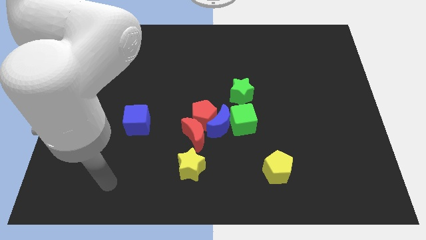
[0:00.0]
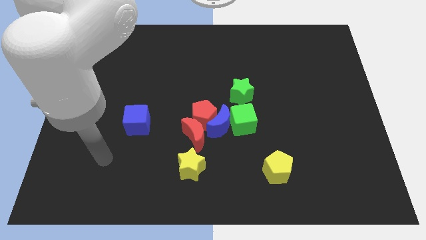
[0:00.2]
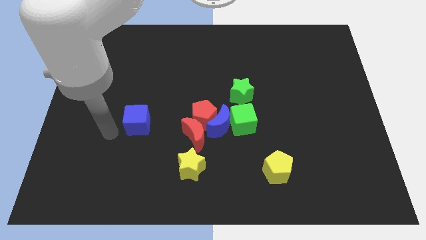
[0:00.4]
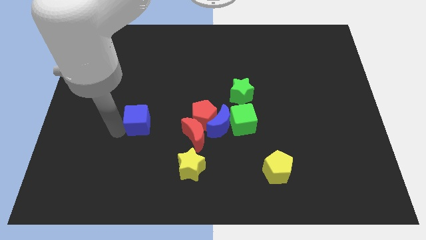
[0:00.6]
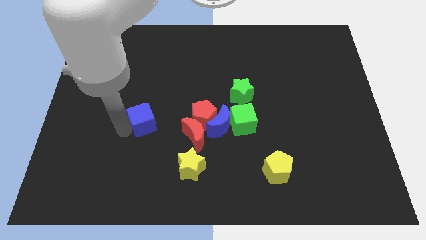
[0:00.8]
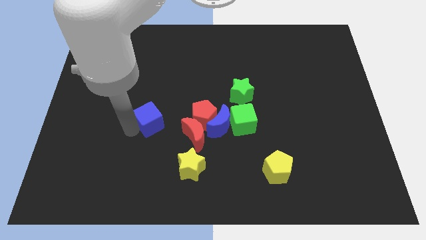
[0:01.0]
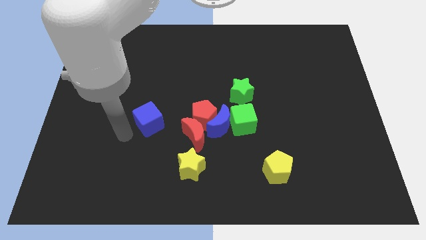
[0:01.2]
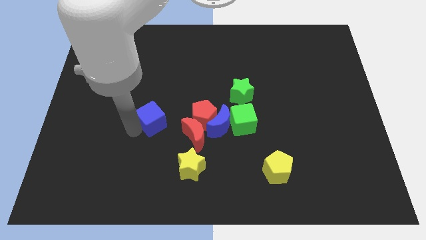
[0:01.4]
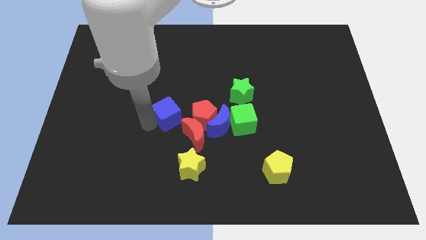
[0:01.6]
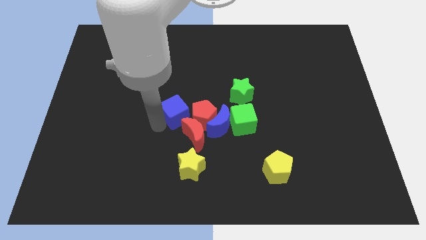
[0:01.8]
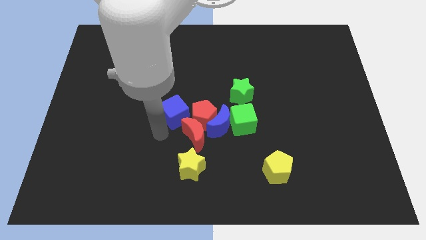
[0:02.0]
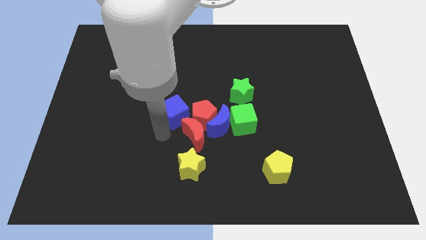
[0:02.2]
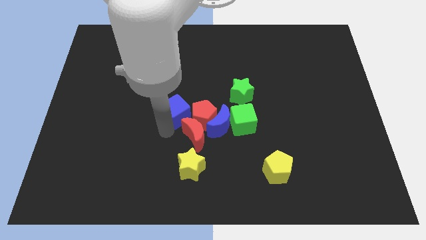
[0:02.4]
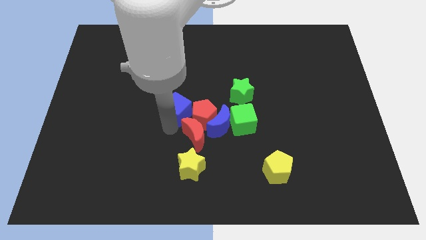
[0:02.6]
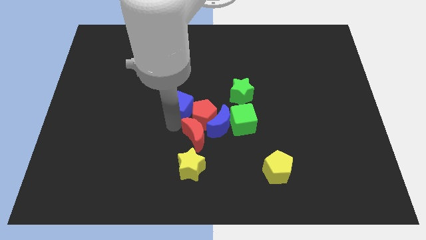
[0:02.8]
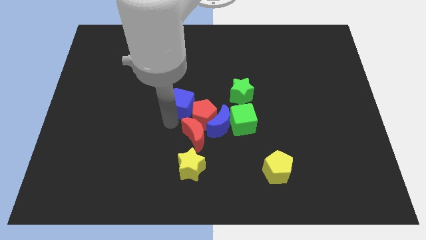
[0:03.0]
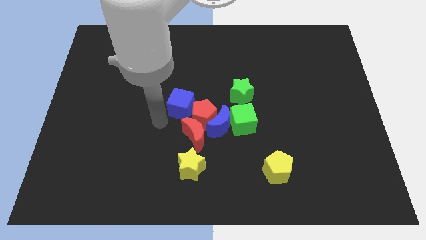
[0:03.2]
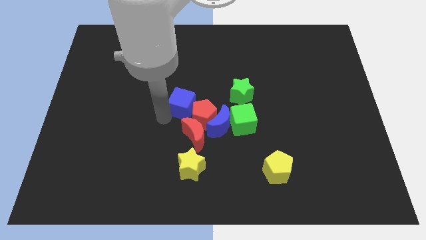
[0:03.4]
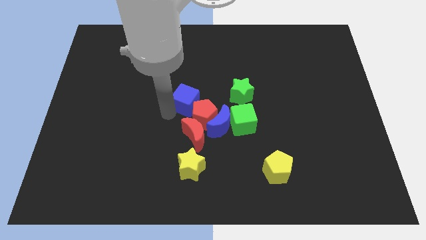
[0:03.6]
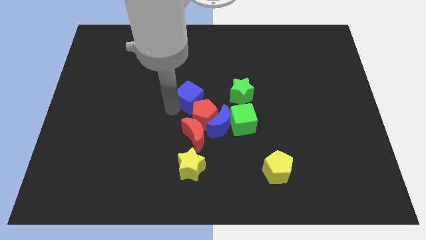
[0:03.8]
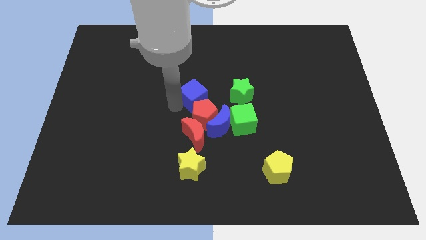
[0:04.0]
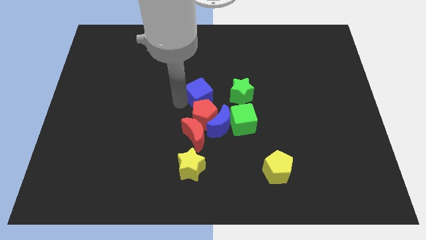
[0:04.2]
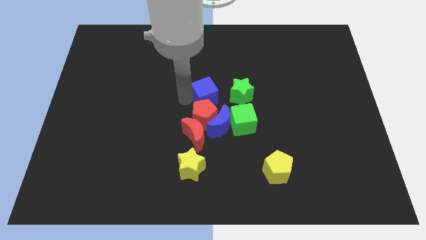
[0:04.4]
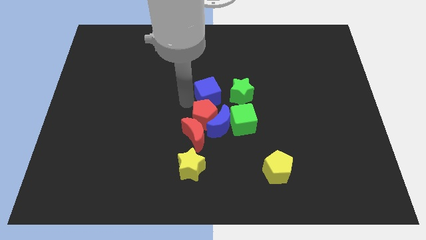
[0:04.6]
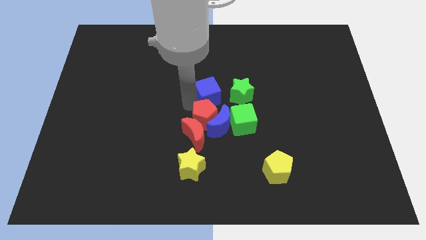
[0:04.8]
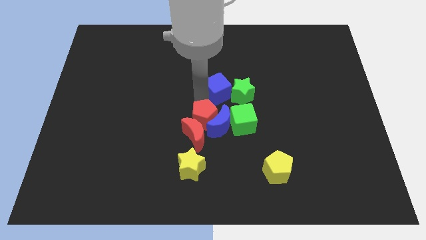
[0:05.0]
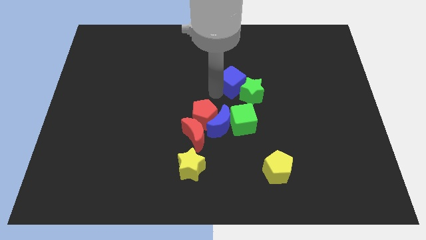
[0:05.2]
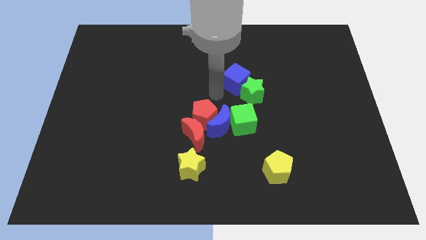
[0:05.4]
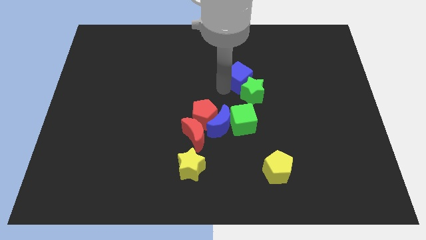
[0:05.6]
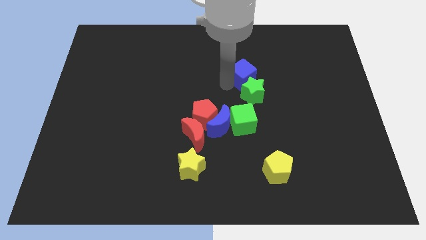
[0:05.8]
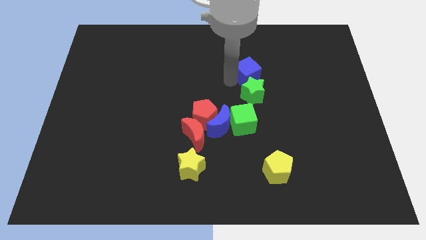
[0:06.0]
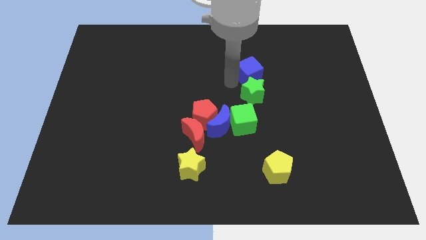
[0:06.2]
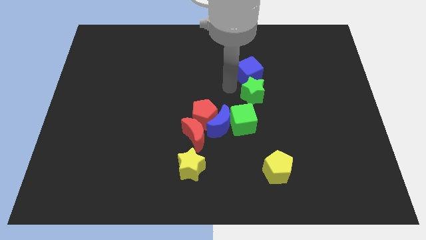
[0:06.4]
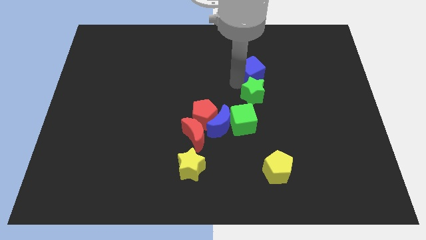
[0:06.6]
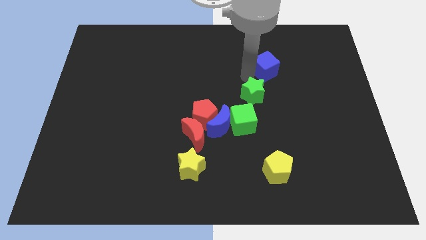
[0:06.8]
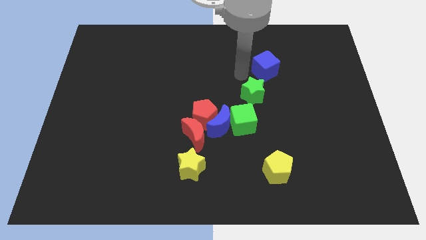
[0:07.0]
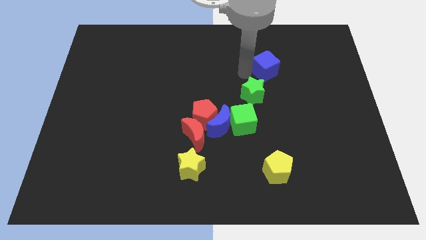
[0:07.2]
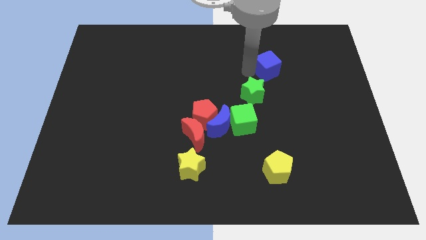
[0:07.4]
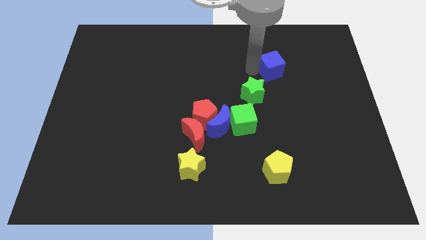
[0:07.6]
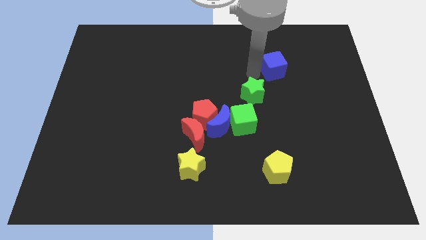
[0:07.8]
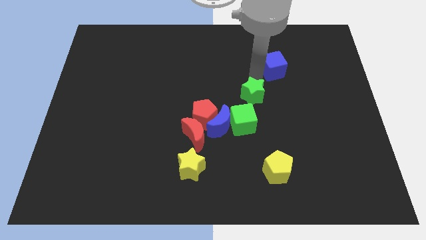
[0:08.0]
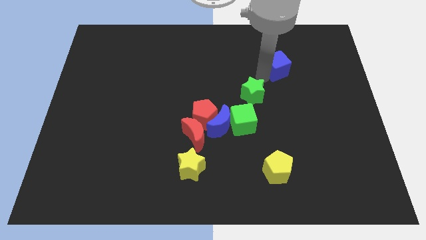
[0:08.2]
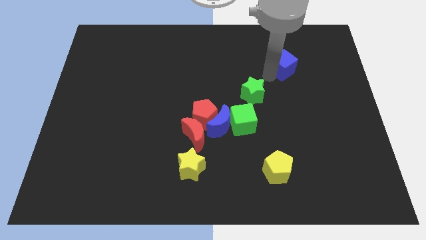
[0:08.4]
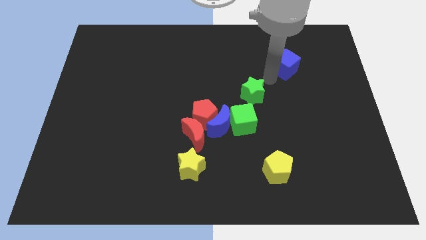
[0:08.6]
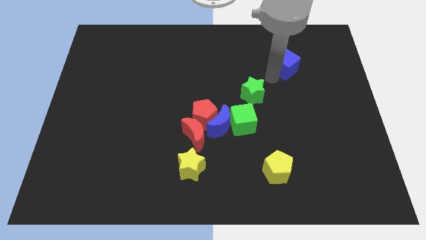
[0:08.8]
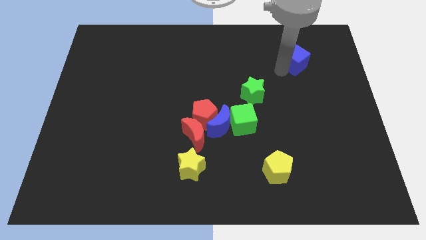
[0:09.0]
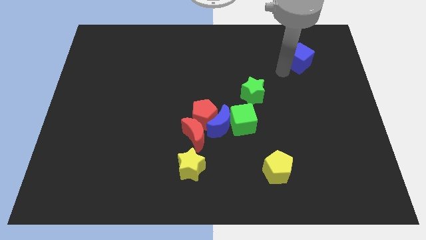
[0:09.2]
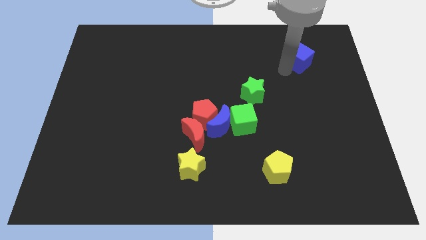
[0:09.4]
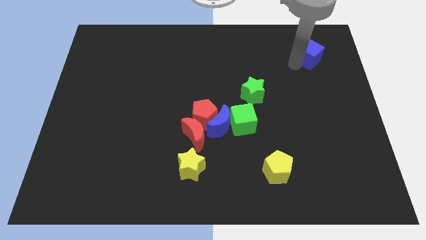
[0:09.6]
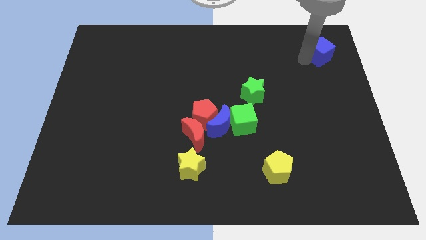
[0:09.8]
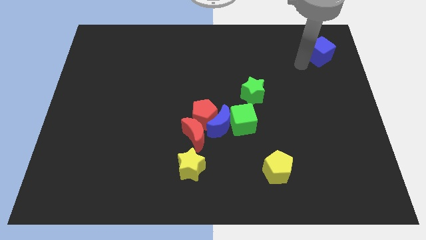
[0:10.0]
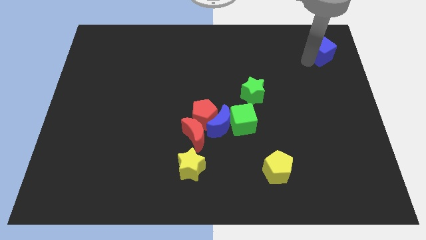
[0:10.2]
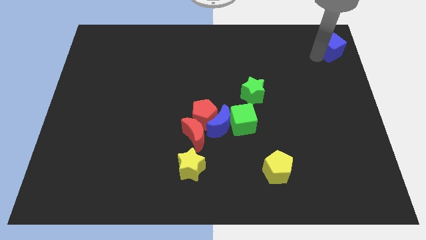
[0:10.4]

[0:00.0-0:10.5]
slide the blue cube to the top right

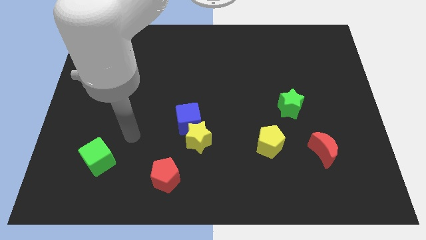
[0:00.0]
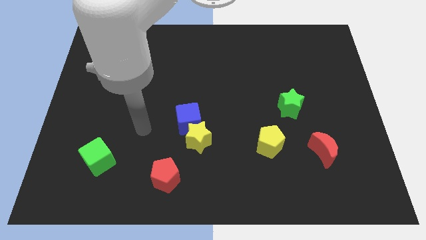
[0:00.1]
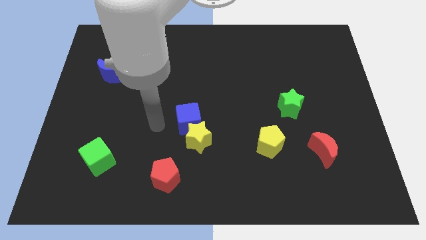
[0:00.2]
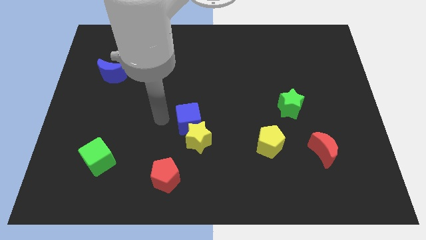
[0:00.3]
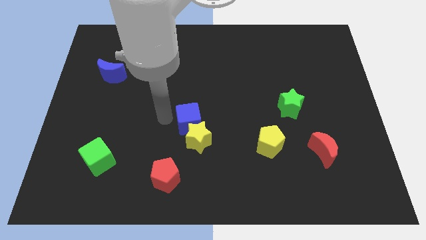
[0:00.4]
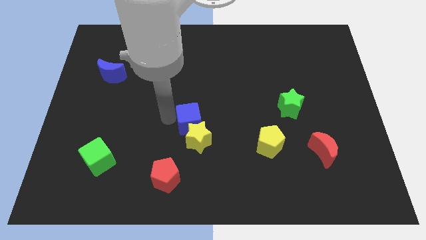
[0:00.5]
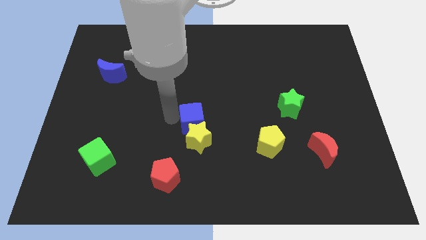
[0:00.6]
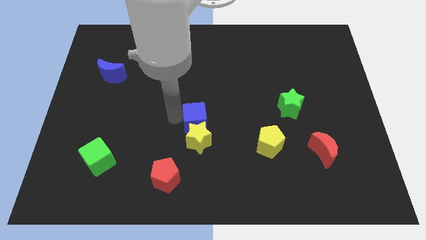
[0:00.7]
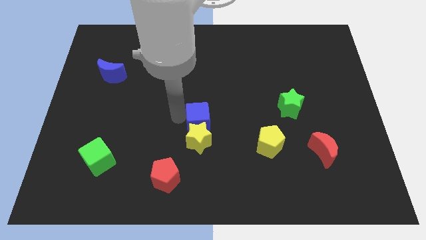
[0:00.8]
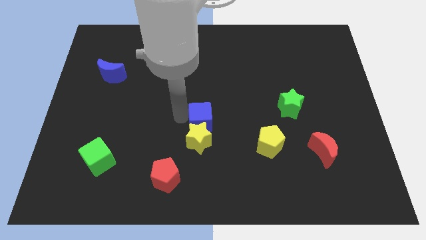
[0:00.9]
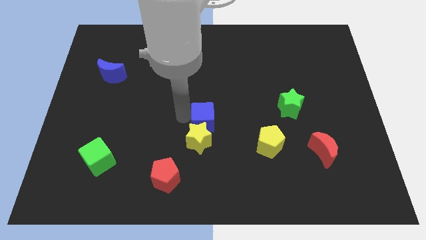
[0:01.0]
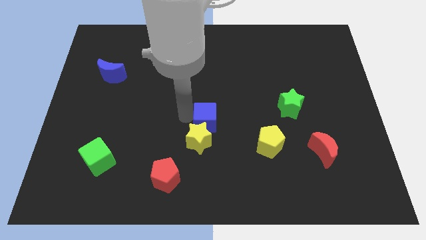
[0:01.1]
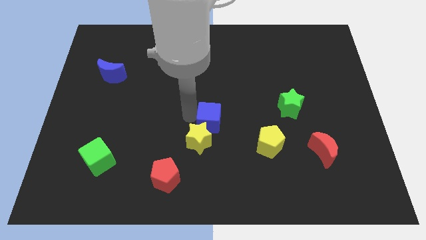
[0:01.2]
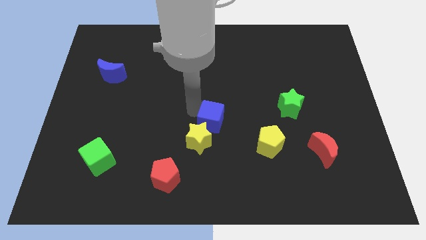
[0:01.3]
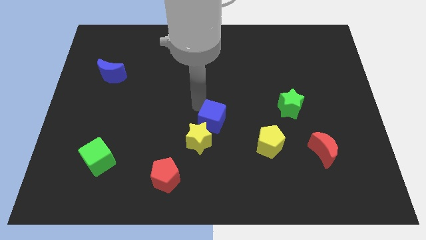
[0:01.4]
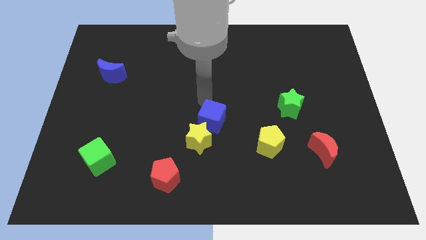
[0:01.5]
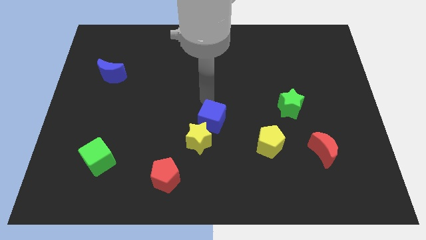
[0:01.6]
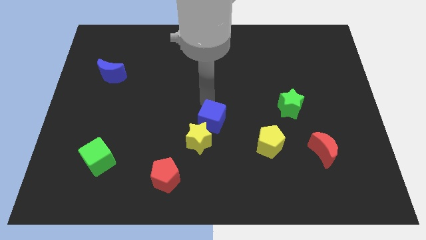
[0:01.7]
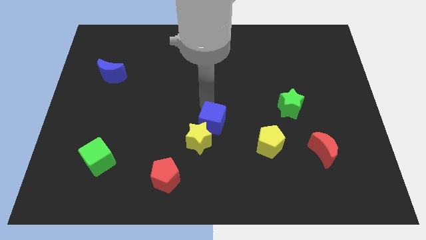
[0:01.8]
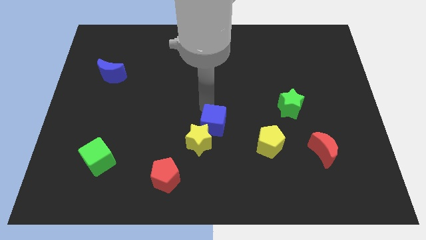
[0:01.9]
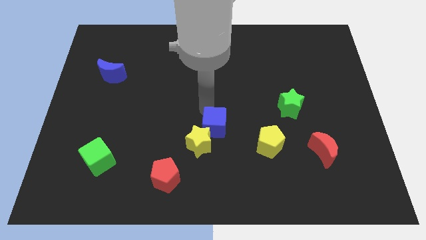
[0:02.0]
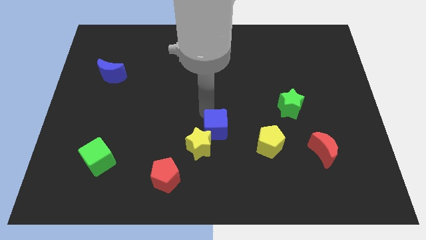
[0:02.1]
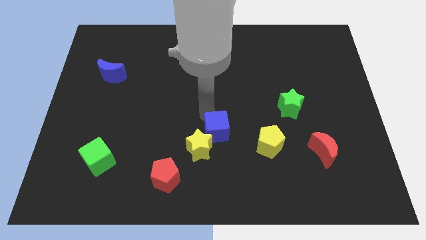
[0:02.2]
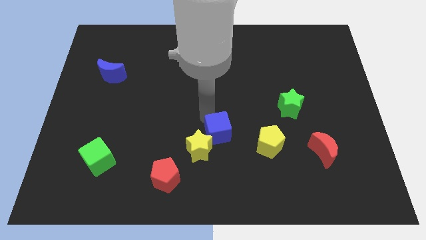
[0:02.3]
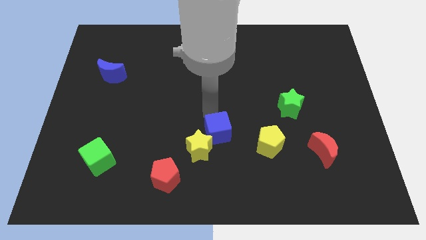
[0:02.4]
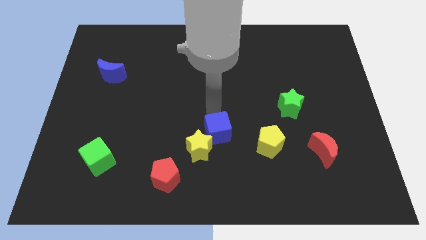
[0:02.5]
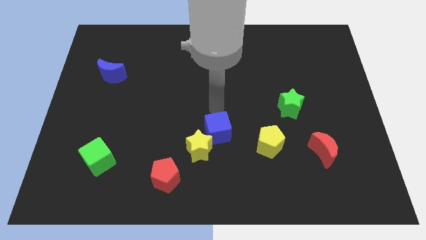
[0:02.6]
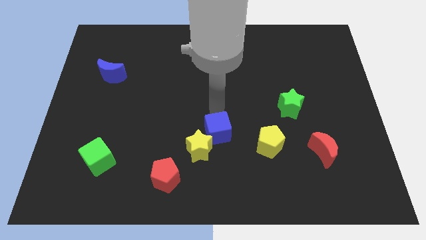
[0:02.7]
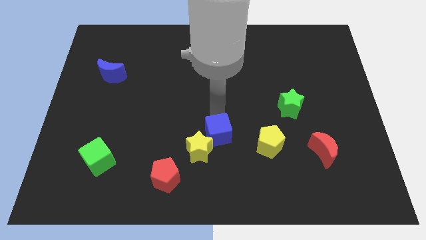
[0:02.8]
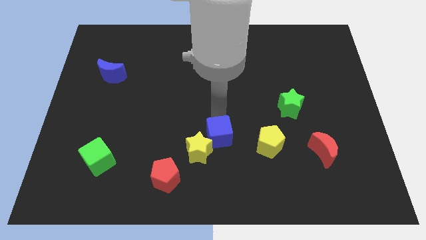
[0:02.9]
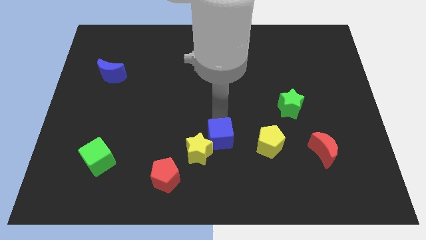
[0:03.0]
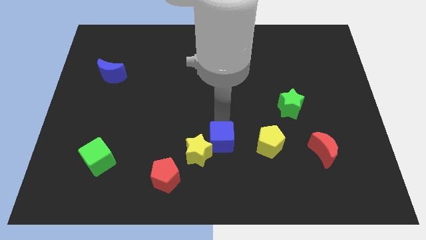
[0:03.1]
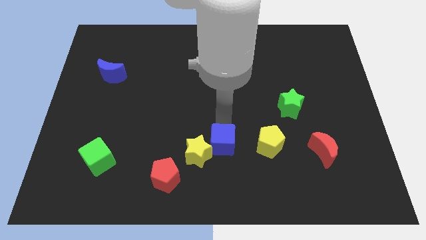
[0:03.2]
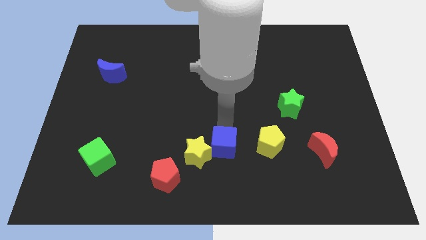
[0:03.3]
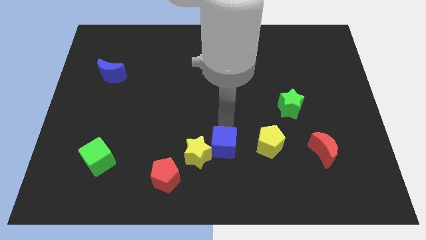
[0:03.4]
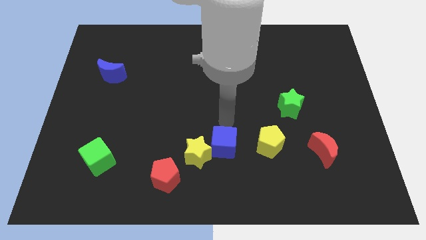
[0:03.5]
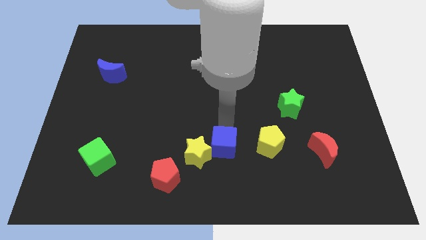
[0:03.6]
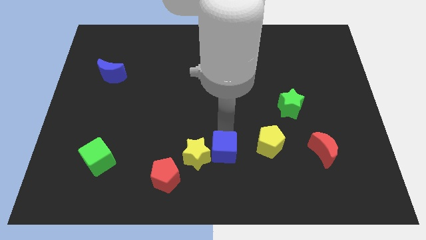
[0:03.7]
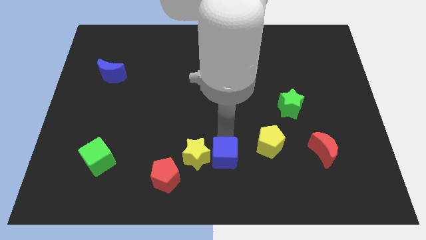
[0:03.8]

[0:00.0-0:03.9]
put the blue cube to the bottom
